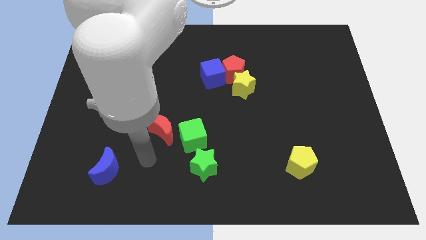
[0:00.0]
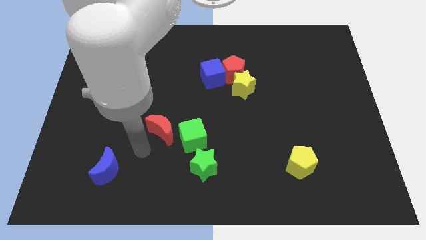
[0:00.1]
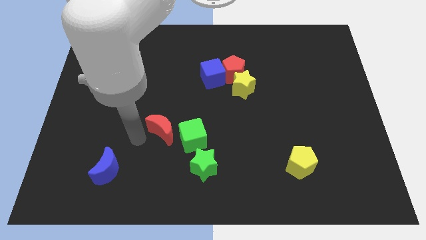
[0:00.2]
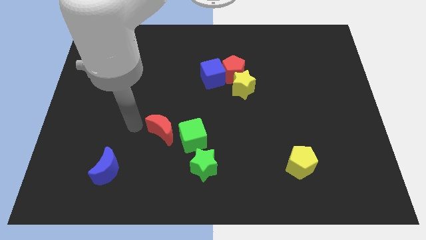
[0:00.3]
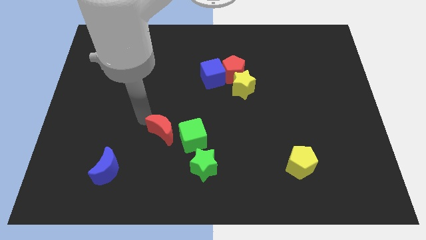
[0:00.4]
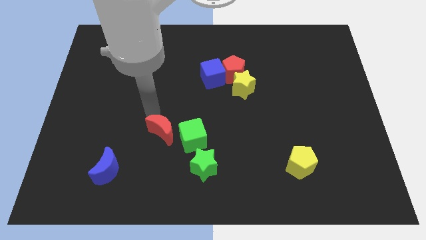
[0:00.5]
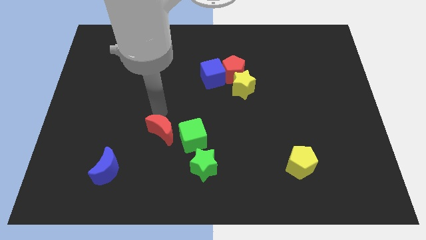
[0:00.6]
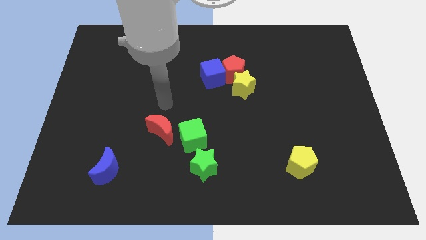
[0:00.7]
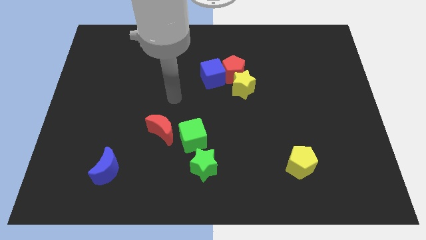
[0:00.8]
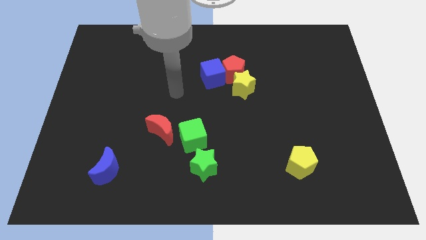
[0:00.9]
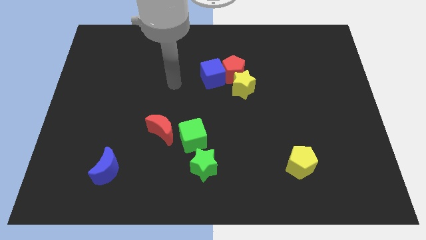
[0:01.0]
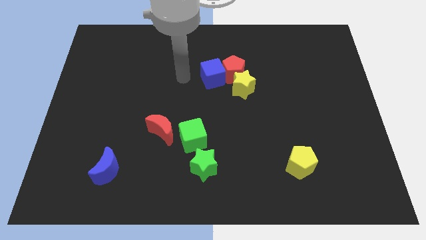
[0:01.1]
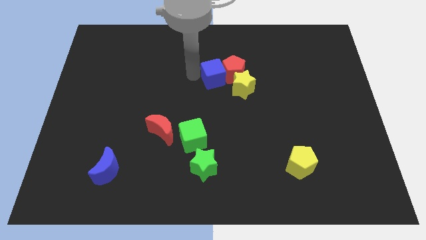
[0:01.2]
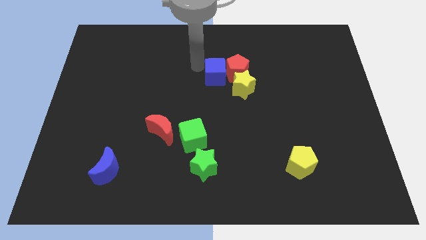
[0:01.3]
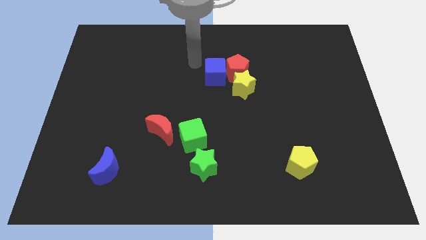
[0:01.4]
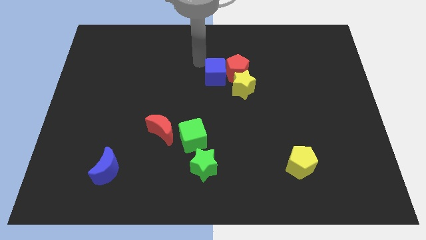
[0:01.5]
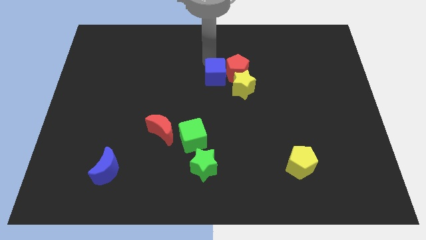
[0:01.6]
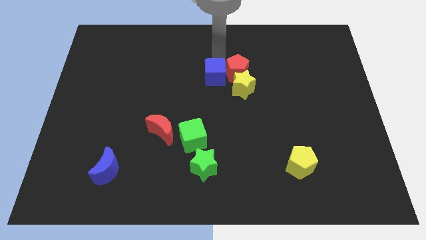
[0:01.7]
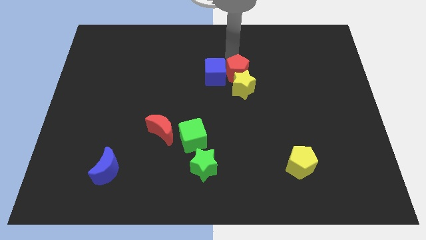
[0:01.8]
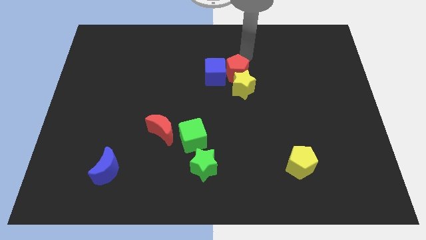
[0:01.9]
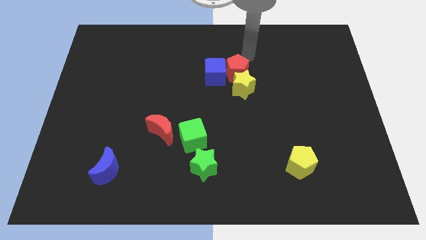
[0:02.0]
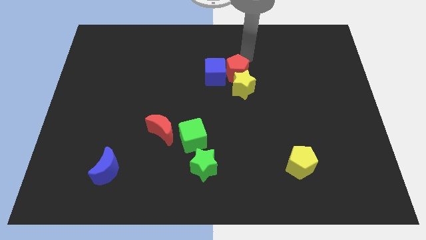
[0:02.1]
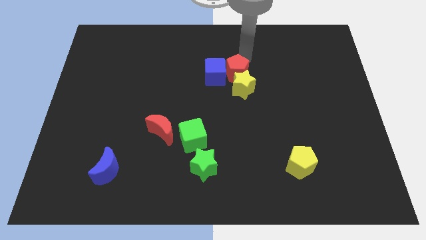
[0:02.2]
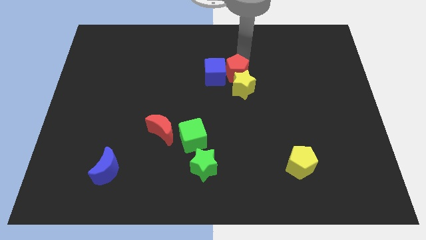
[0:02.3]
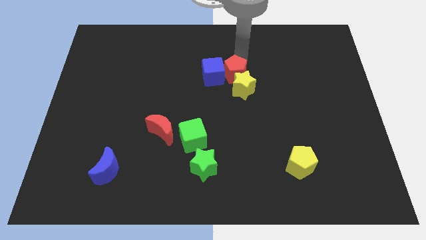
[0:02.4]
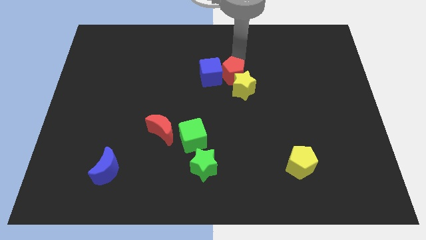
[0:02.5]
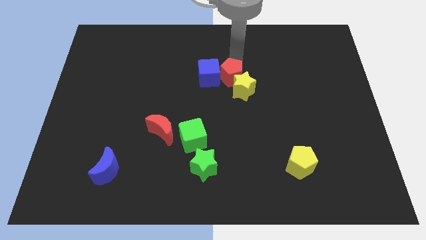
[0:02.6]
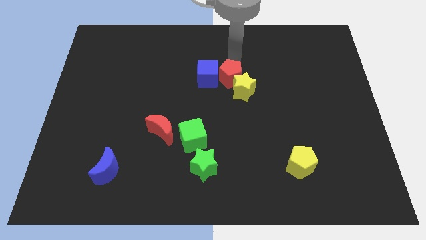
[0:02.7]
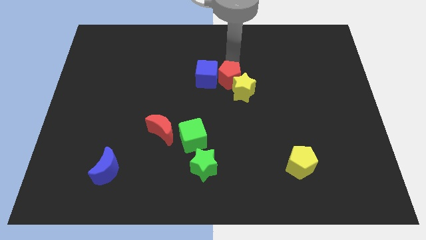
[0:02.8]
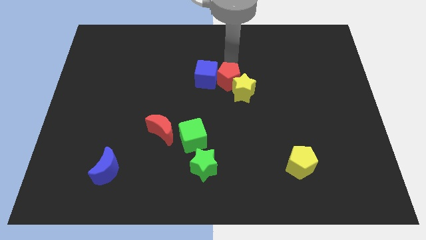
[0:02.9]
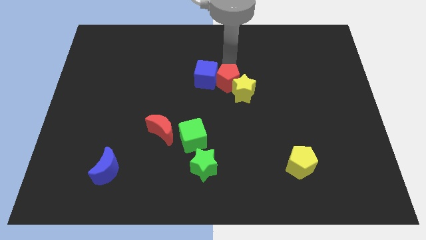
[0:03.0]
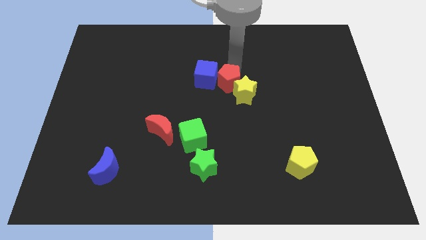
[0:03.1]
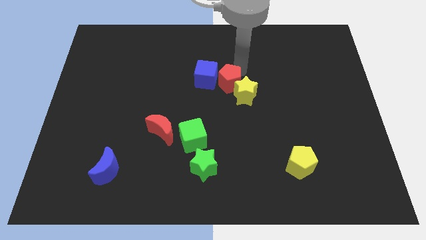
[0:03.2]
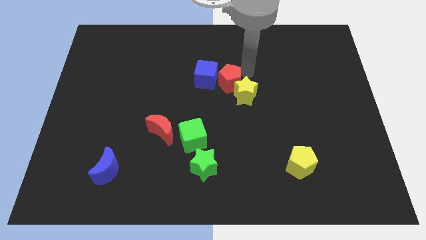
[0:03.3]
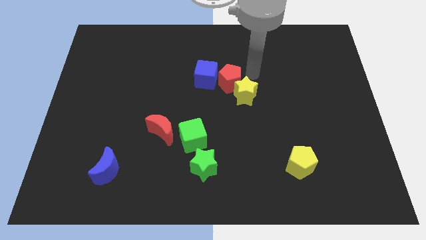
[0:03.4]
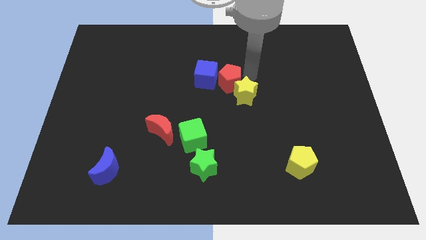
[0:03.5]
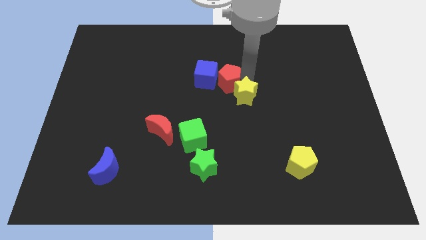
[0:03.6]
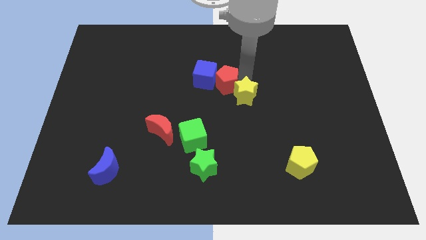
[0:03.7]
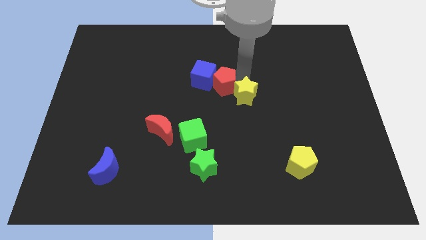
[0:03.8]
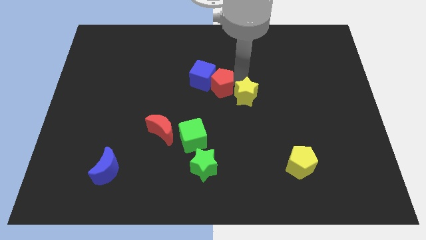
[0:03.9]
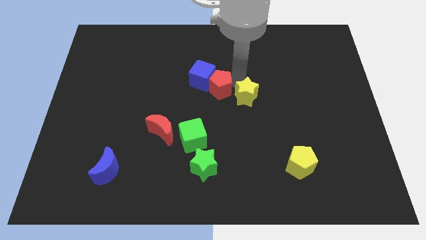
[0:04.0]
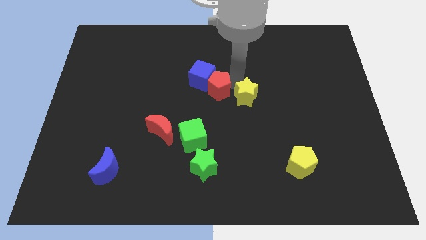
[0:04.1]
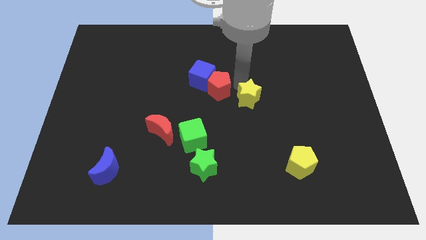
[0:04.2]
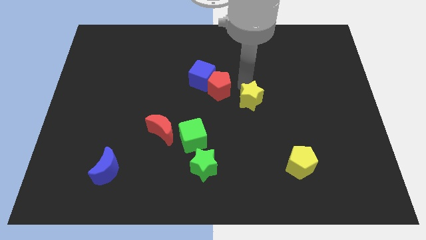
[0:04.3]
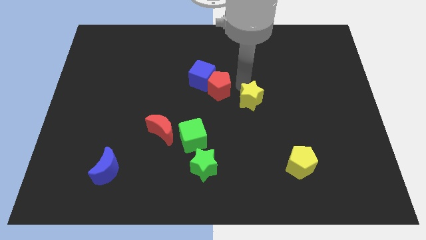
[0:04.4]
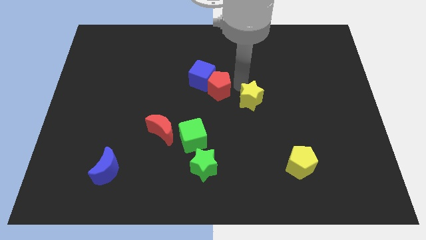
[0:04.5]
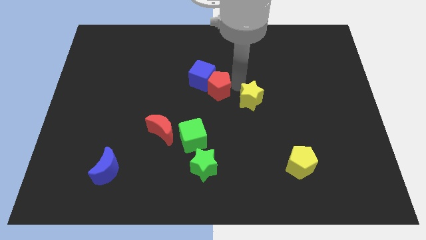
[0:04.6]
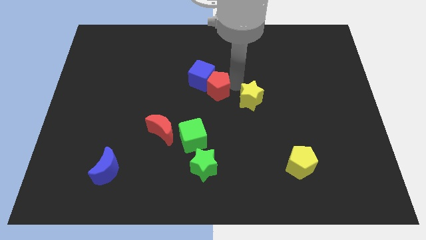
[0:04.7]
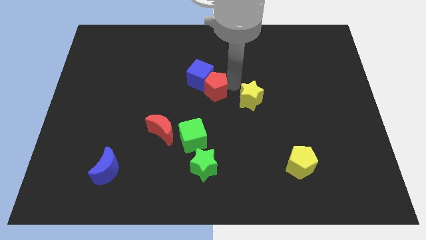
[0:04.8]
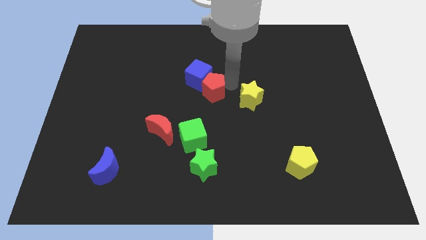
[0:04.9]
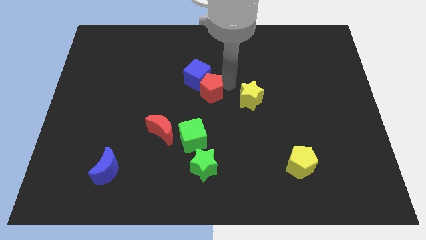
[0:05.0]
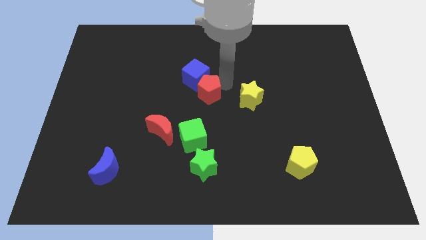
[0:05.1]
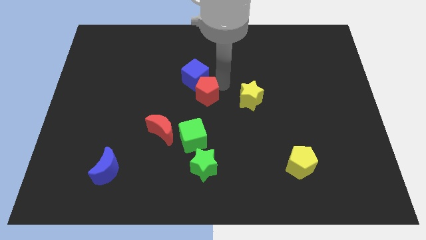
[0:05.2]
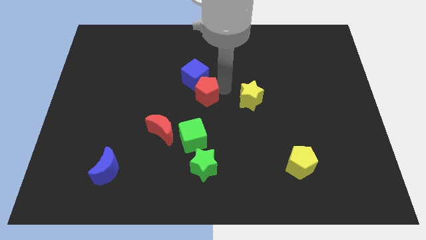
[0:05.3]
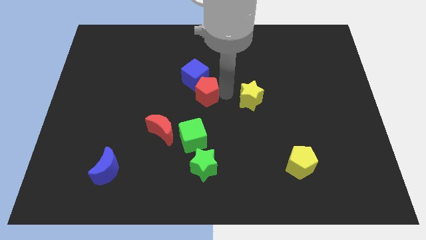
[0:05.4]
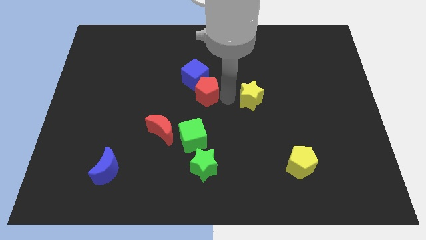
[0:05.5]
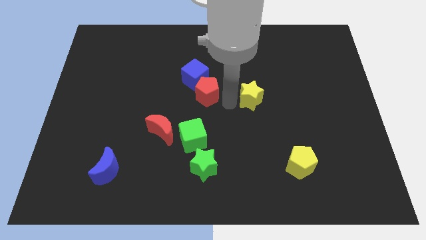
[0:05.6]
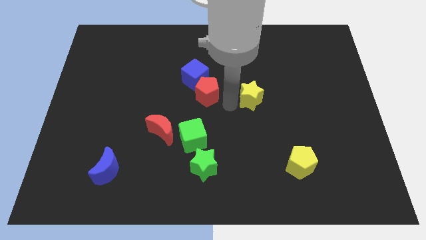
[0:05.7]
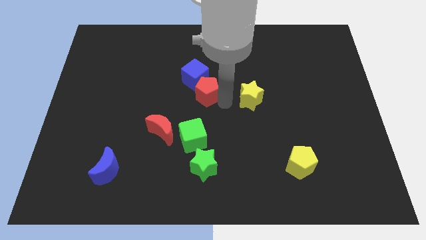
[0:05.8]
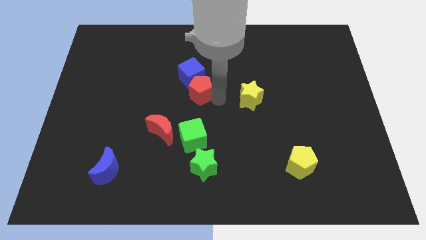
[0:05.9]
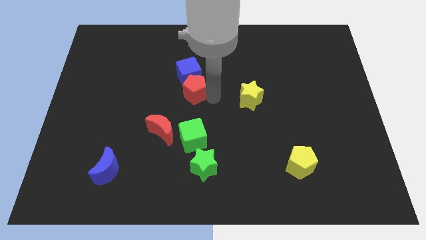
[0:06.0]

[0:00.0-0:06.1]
slightly slide the red pentagon to the left

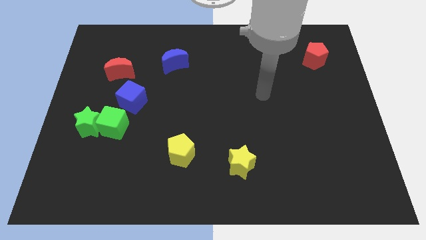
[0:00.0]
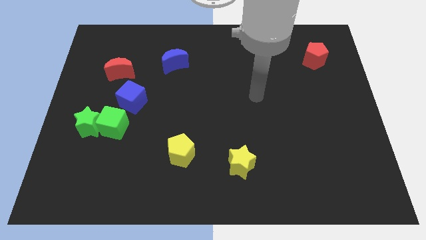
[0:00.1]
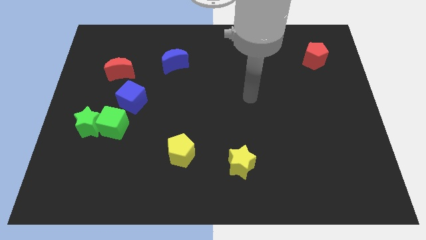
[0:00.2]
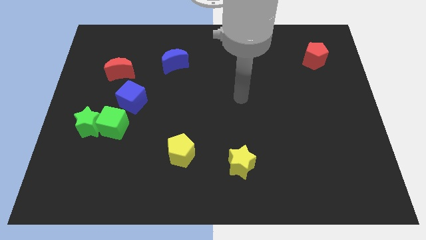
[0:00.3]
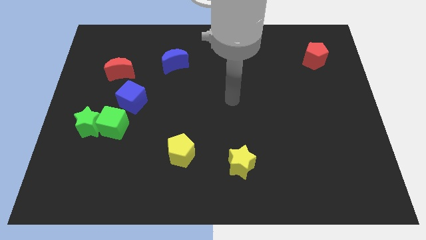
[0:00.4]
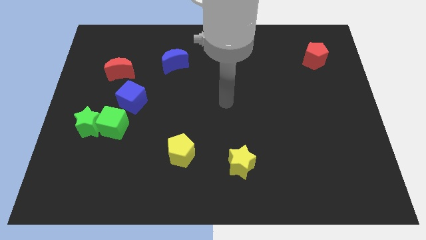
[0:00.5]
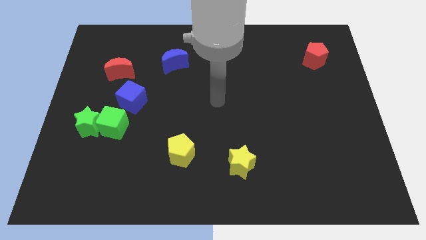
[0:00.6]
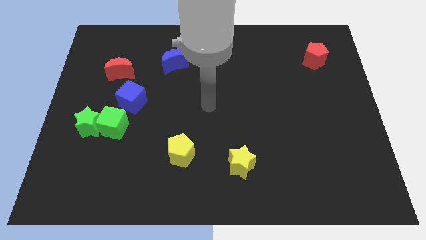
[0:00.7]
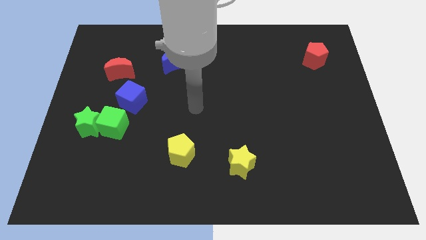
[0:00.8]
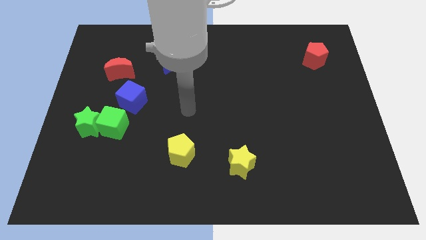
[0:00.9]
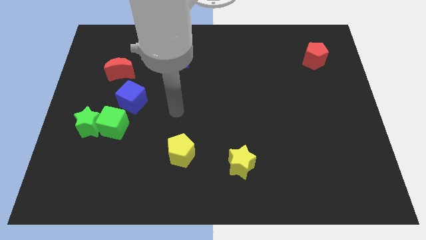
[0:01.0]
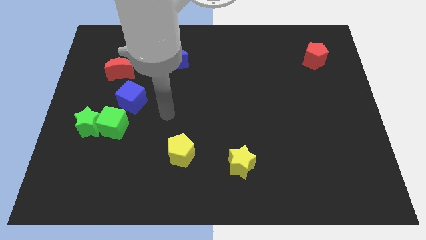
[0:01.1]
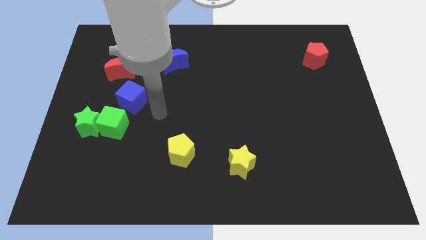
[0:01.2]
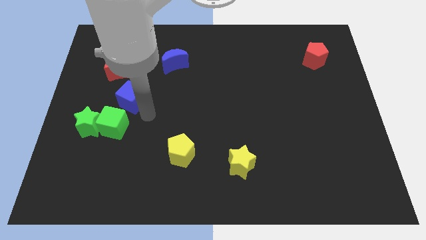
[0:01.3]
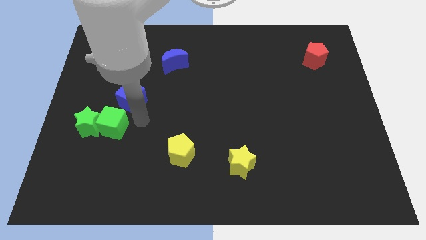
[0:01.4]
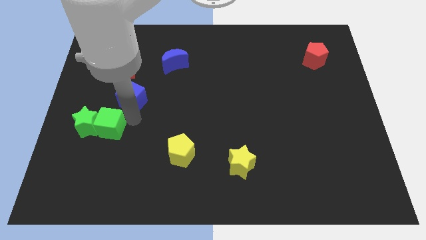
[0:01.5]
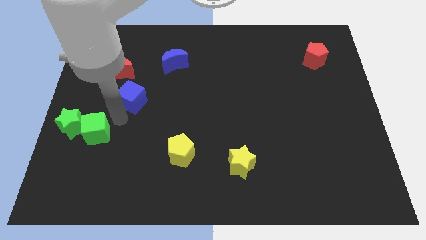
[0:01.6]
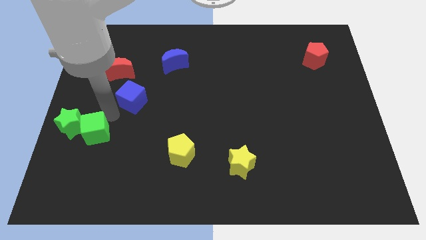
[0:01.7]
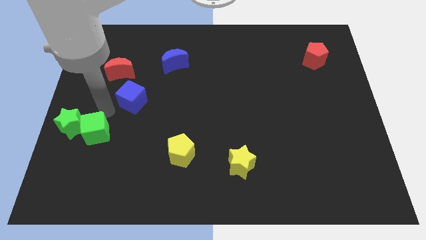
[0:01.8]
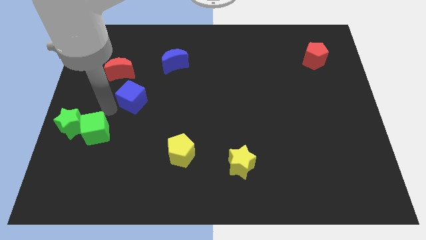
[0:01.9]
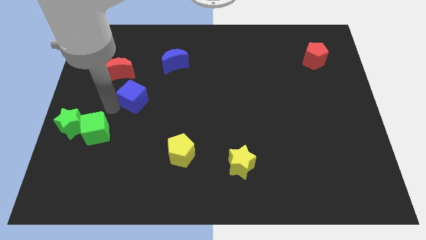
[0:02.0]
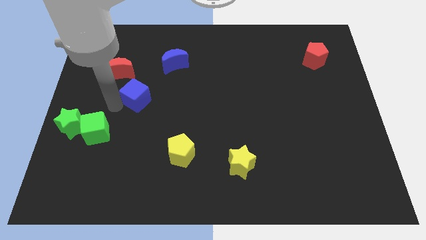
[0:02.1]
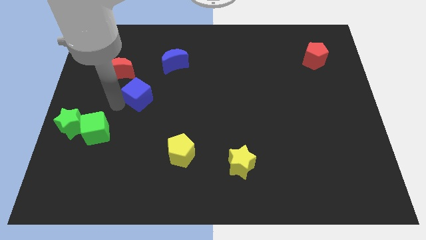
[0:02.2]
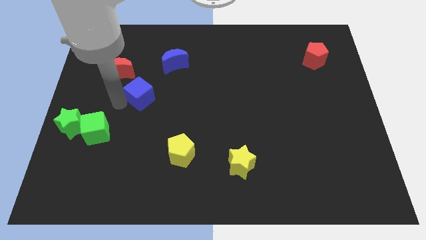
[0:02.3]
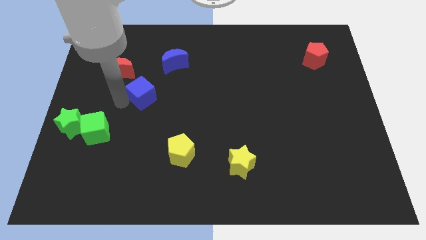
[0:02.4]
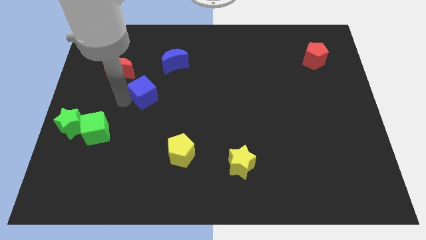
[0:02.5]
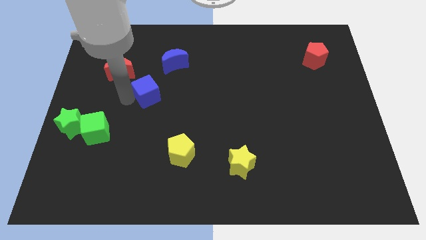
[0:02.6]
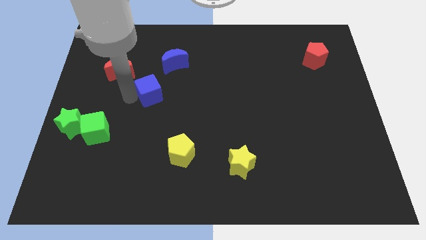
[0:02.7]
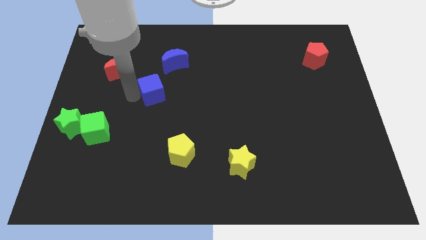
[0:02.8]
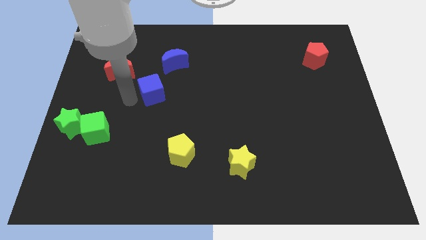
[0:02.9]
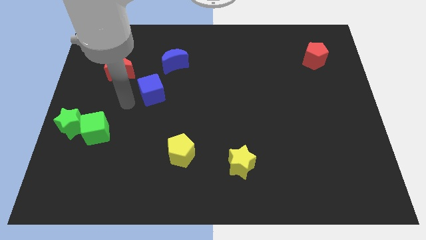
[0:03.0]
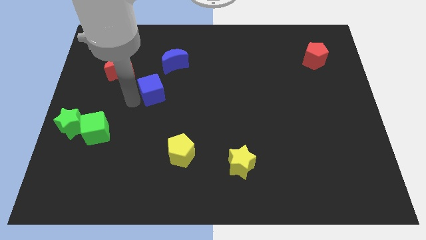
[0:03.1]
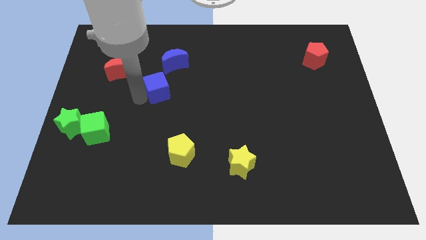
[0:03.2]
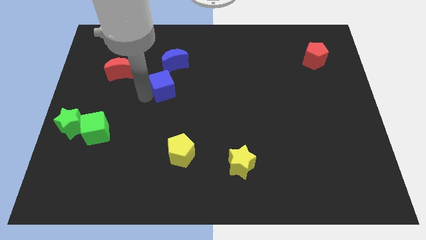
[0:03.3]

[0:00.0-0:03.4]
move the blue cube somewhat diagonally upwards and to the right
